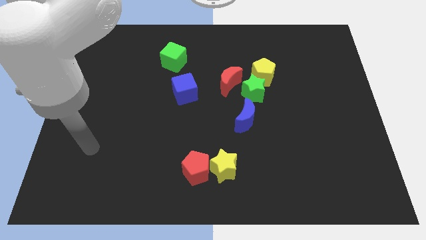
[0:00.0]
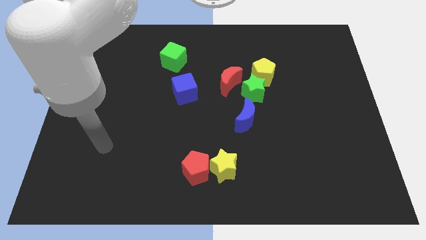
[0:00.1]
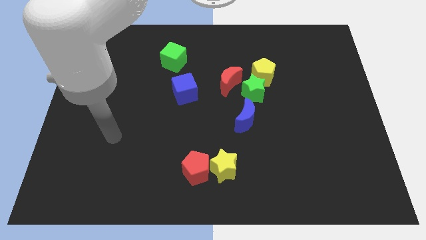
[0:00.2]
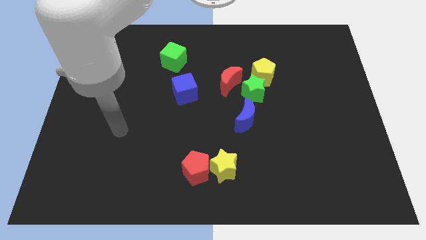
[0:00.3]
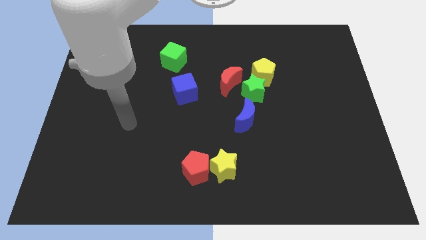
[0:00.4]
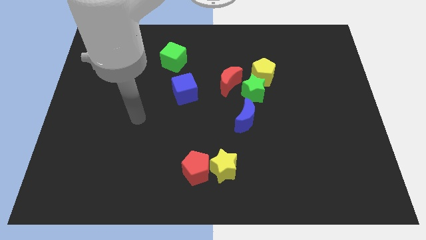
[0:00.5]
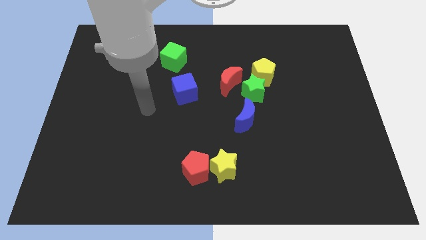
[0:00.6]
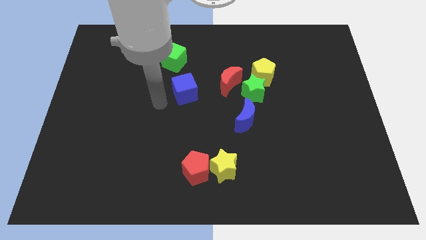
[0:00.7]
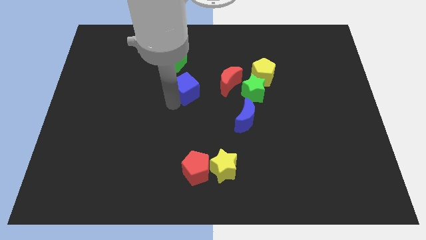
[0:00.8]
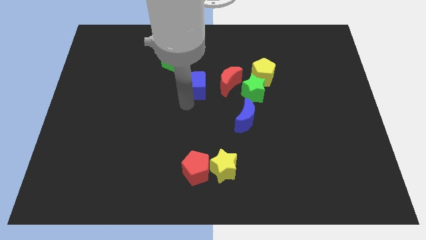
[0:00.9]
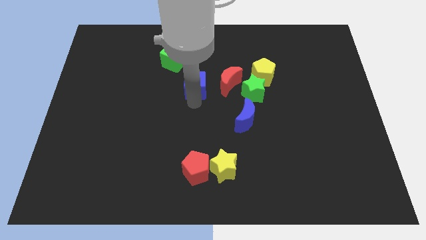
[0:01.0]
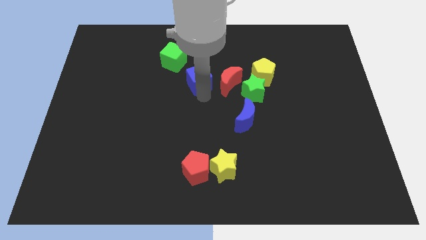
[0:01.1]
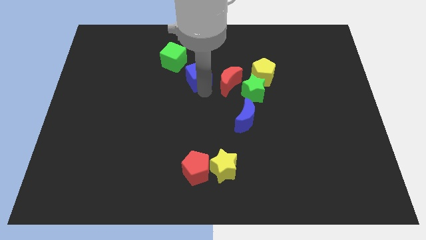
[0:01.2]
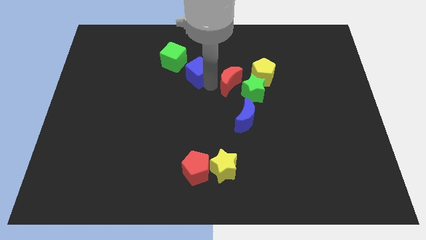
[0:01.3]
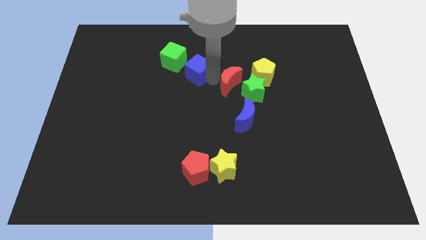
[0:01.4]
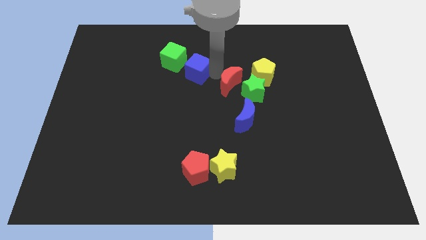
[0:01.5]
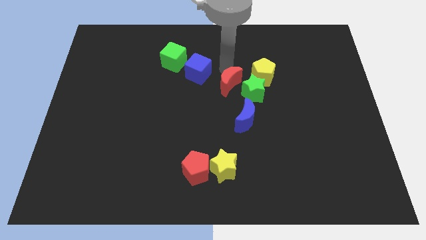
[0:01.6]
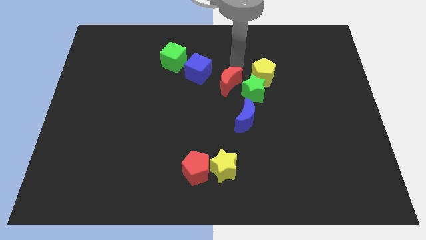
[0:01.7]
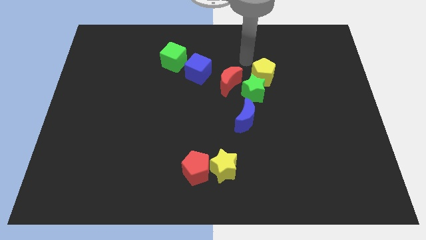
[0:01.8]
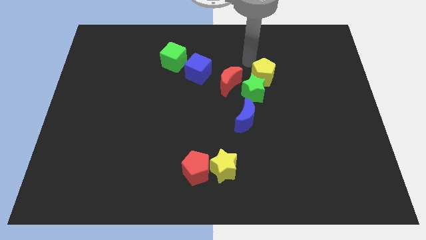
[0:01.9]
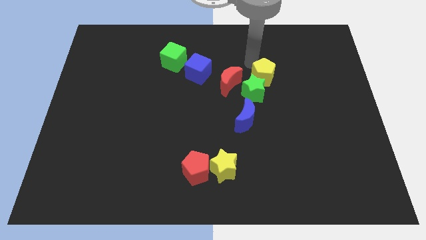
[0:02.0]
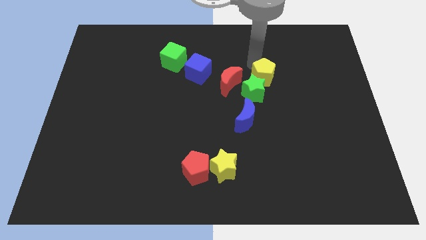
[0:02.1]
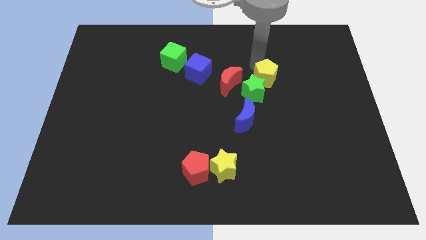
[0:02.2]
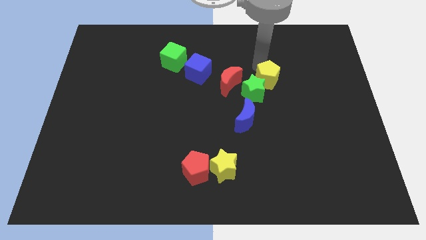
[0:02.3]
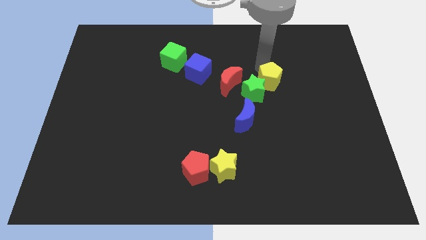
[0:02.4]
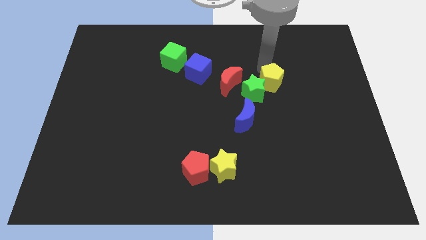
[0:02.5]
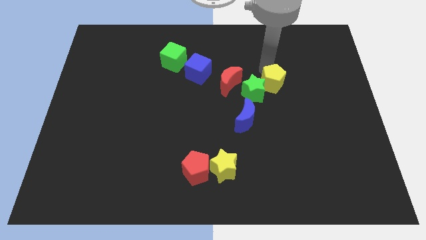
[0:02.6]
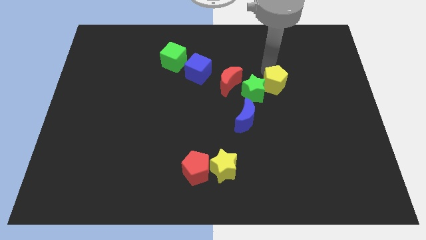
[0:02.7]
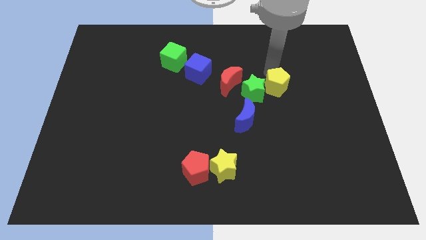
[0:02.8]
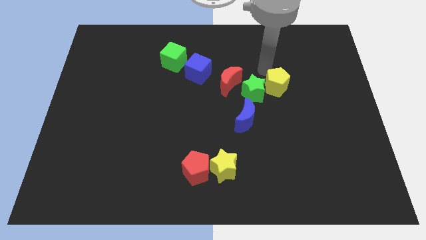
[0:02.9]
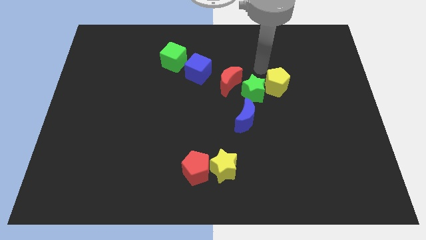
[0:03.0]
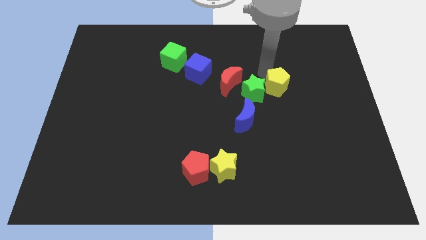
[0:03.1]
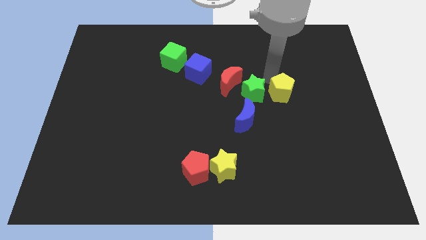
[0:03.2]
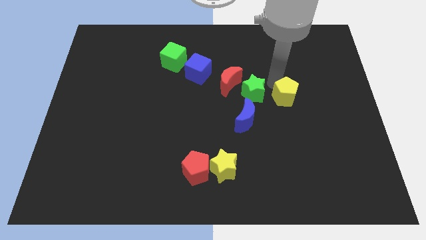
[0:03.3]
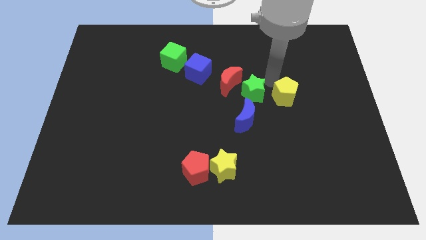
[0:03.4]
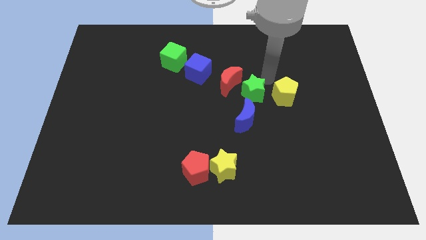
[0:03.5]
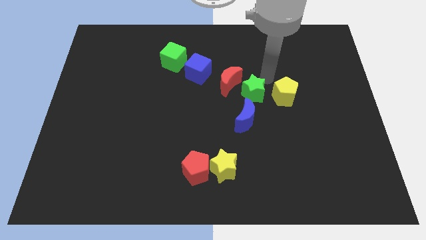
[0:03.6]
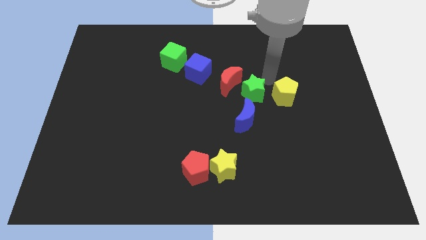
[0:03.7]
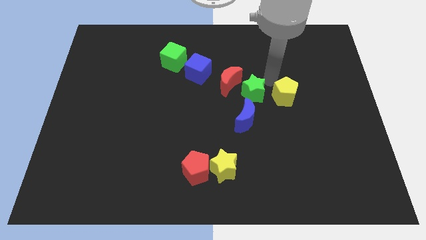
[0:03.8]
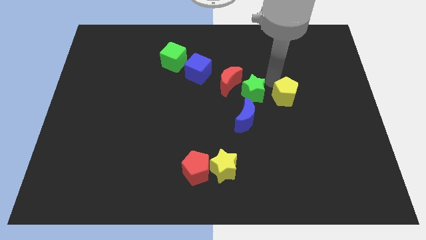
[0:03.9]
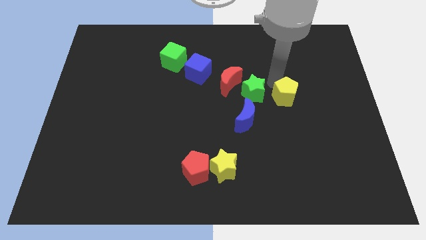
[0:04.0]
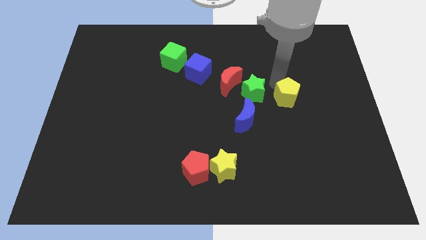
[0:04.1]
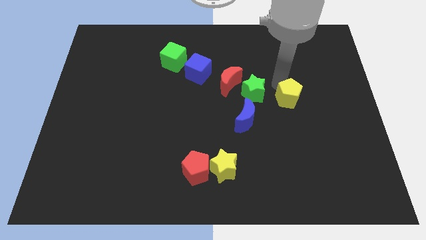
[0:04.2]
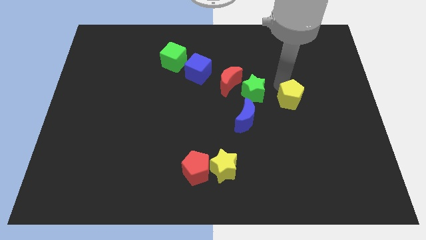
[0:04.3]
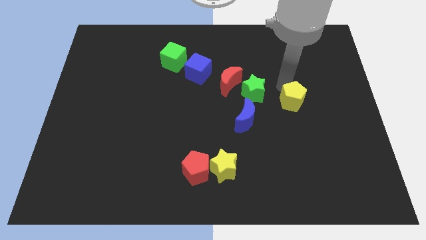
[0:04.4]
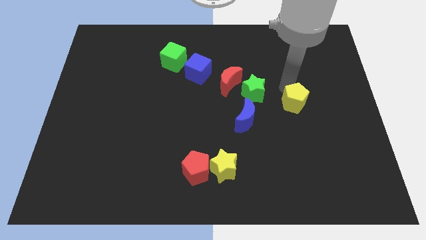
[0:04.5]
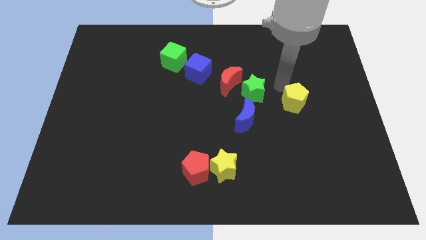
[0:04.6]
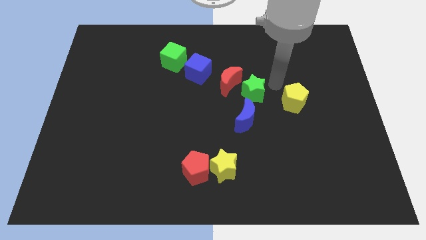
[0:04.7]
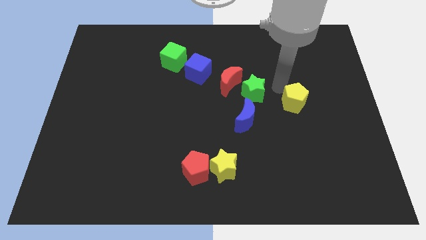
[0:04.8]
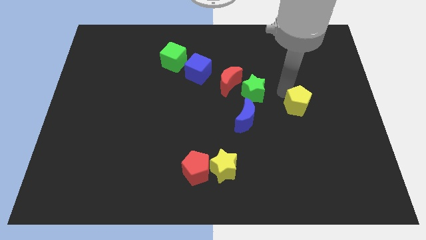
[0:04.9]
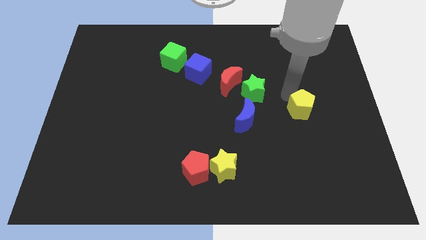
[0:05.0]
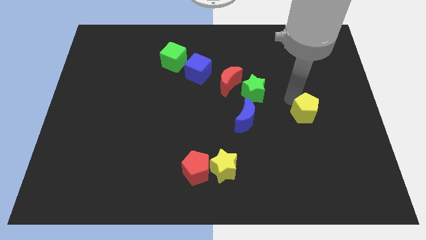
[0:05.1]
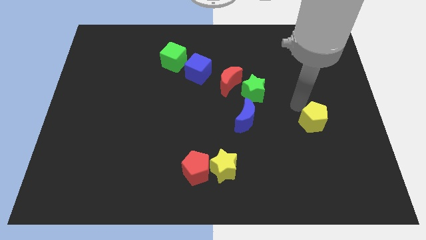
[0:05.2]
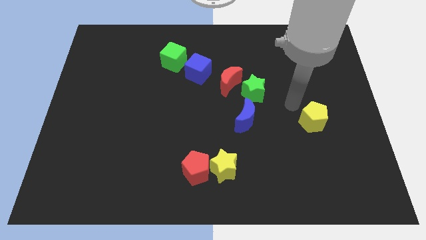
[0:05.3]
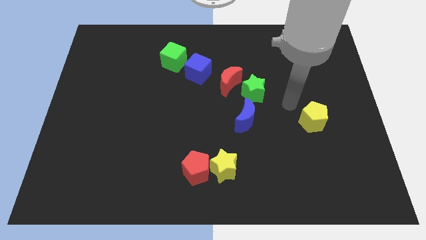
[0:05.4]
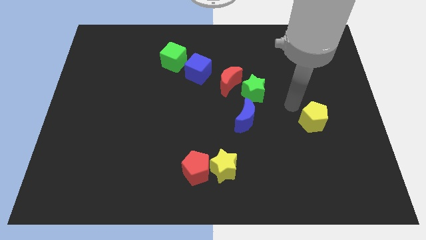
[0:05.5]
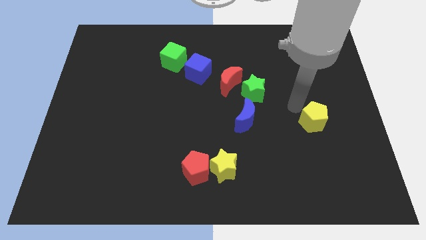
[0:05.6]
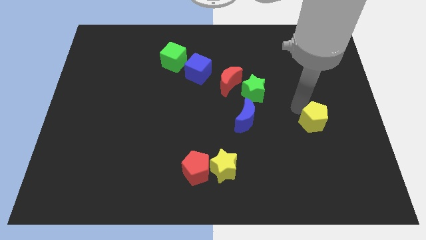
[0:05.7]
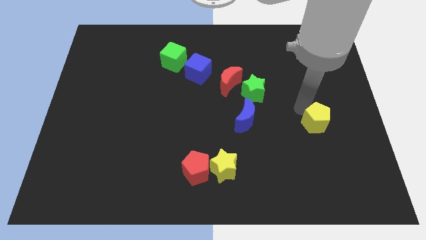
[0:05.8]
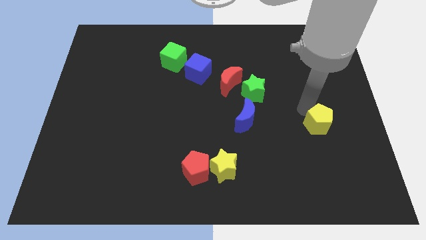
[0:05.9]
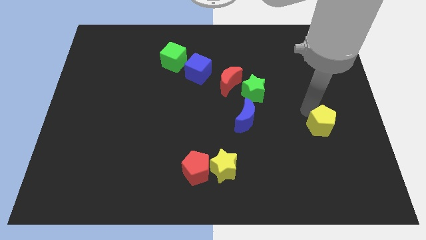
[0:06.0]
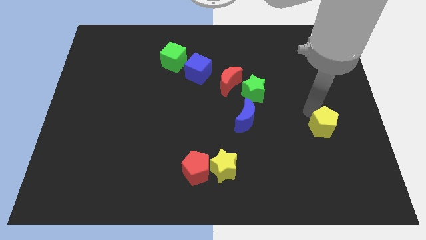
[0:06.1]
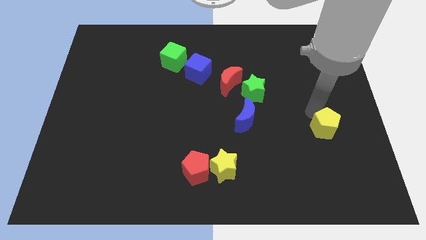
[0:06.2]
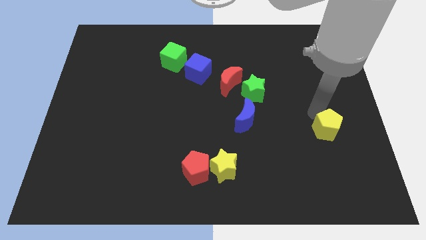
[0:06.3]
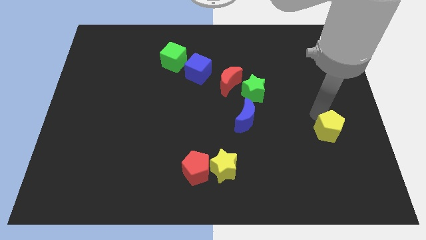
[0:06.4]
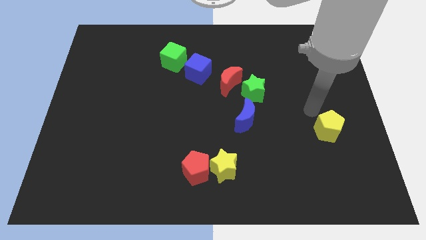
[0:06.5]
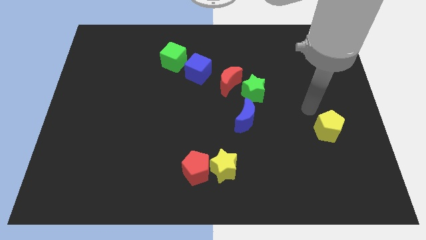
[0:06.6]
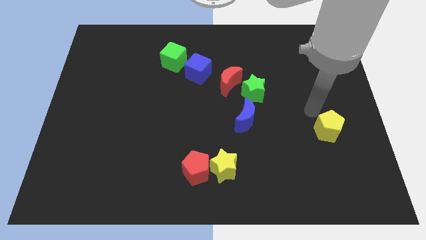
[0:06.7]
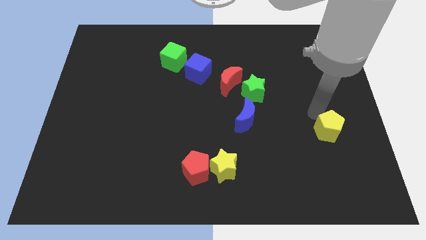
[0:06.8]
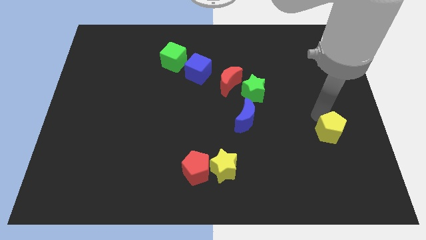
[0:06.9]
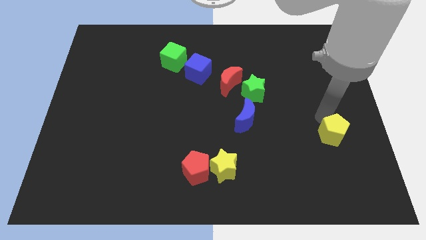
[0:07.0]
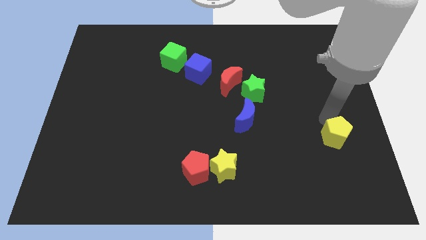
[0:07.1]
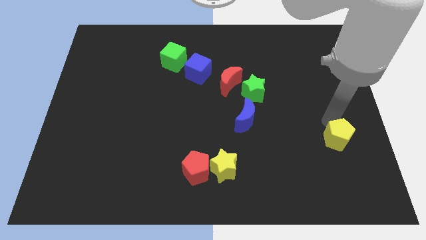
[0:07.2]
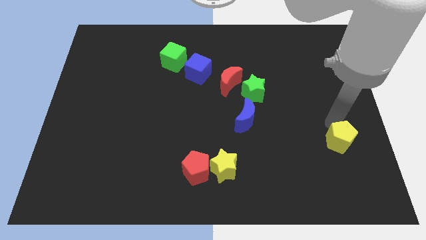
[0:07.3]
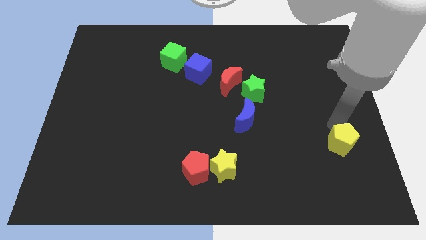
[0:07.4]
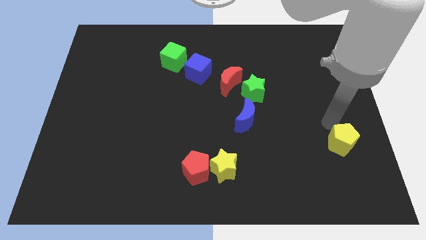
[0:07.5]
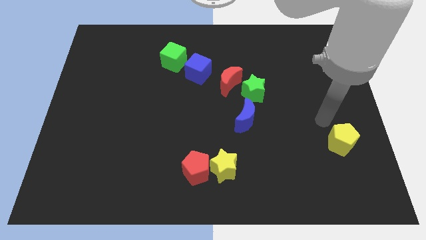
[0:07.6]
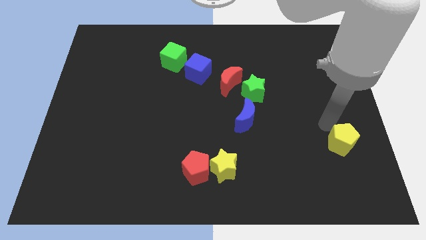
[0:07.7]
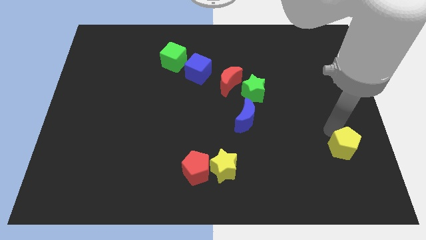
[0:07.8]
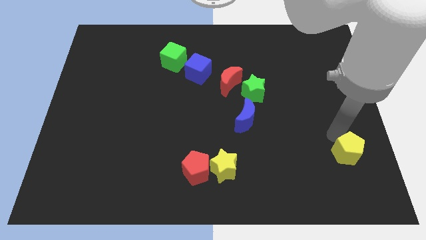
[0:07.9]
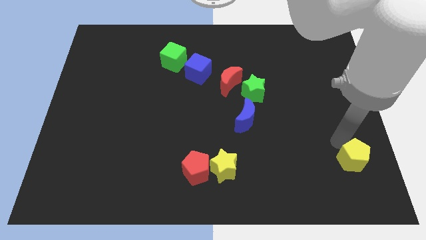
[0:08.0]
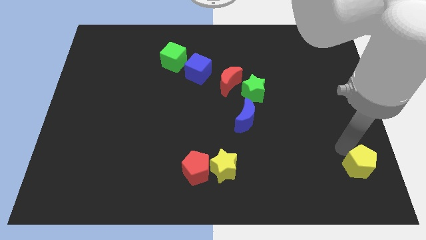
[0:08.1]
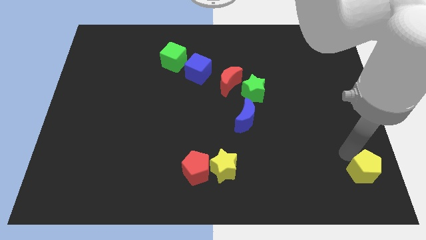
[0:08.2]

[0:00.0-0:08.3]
put the yellow pentagon to the bottom right
